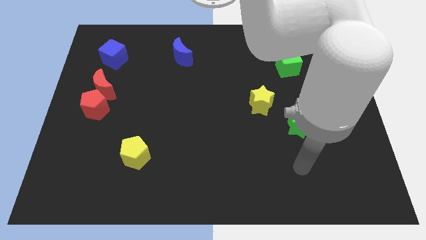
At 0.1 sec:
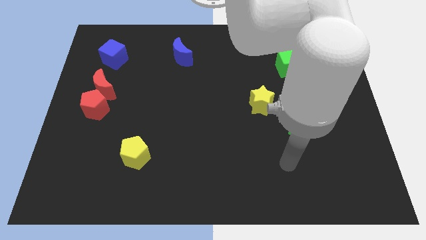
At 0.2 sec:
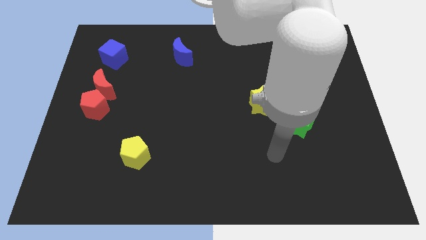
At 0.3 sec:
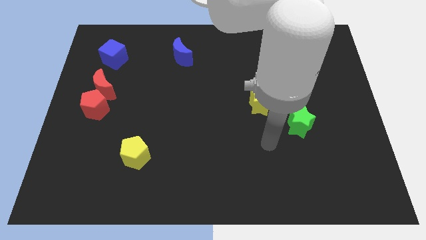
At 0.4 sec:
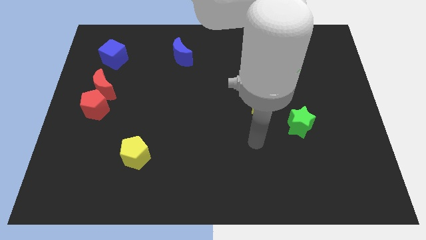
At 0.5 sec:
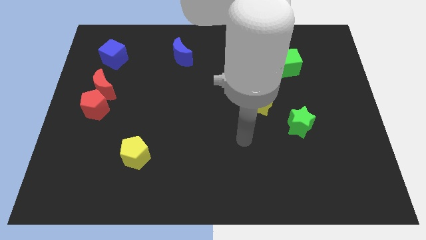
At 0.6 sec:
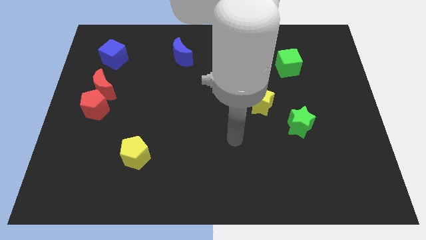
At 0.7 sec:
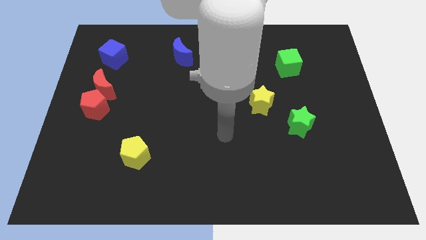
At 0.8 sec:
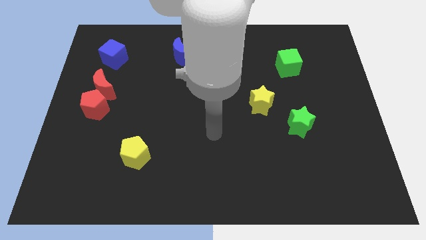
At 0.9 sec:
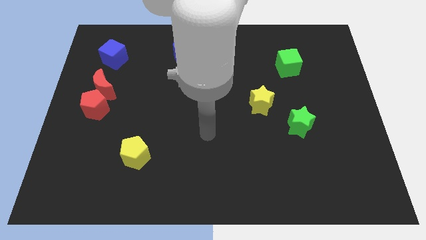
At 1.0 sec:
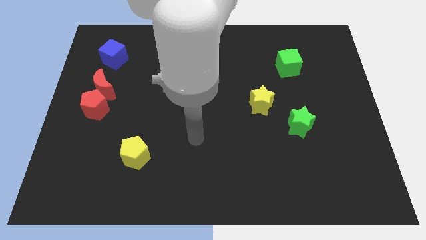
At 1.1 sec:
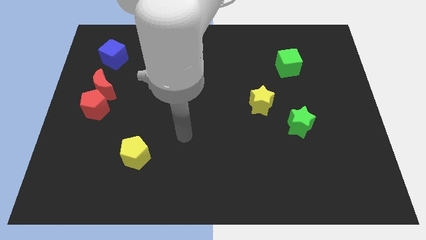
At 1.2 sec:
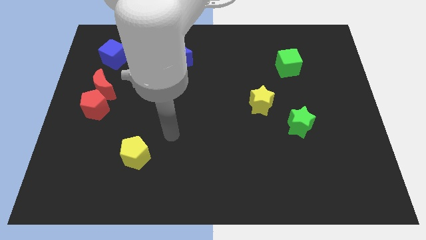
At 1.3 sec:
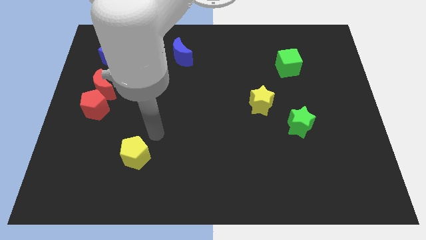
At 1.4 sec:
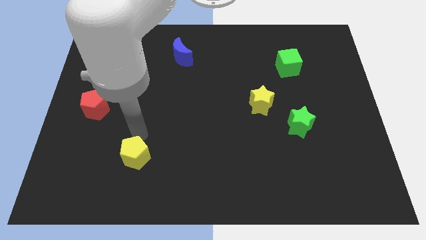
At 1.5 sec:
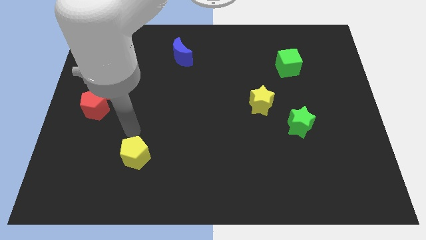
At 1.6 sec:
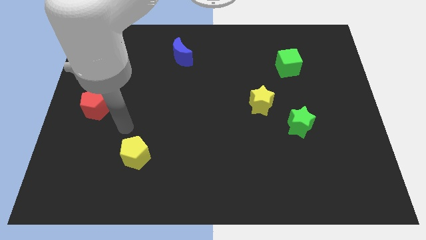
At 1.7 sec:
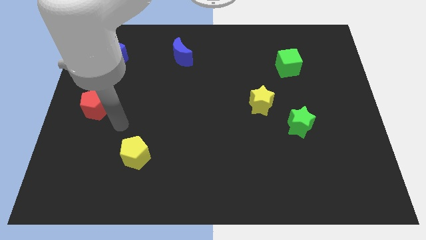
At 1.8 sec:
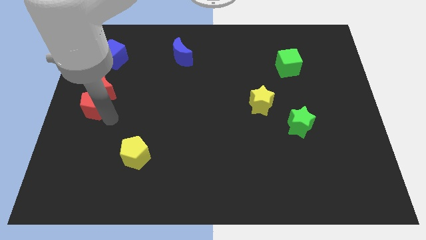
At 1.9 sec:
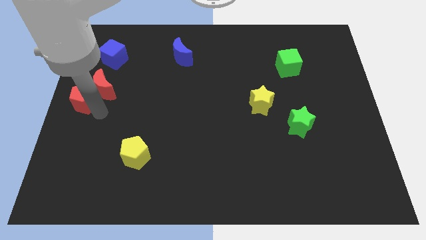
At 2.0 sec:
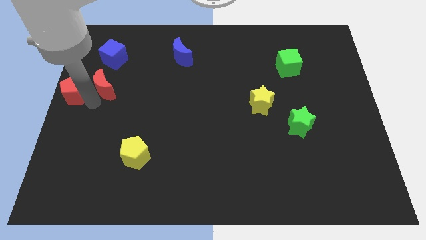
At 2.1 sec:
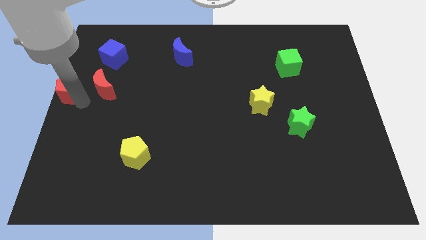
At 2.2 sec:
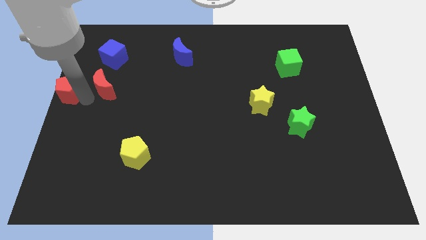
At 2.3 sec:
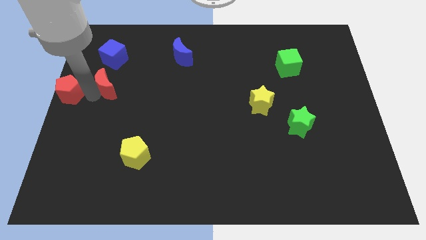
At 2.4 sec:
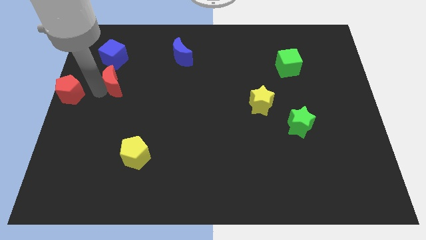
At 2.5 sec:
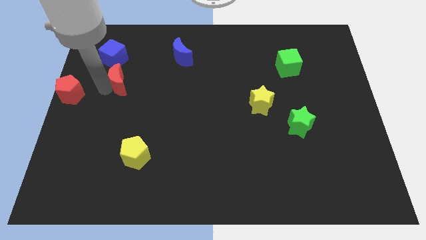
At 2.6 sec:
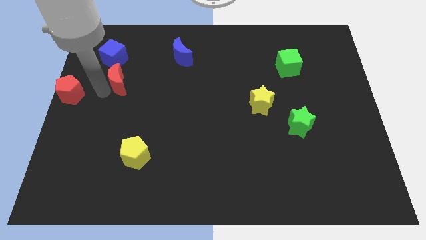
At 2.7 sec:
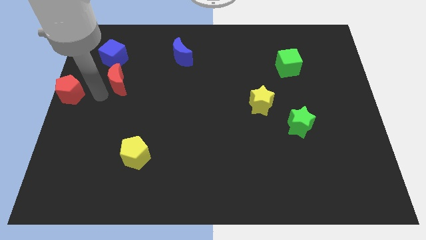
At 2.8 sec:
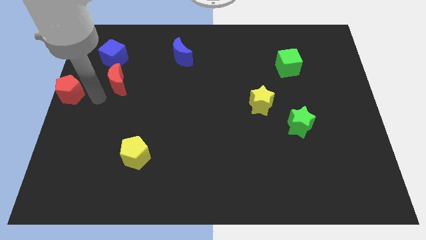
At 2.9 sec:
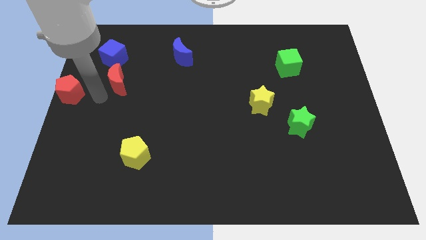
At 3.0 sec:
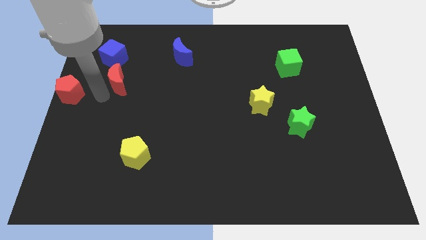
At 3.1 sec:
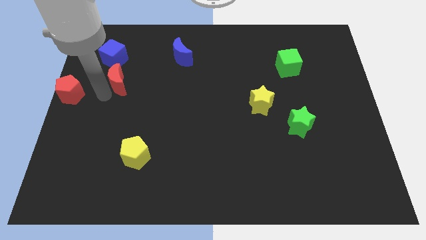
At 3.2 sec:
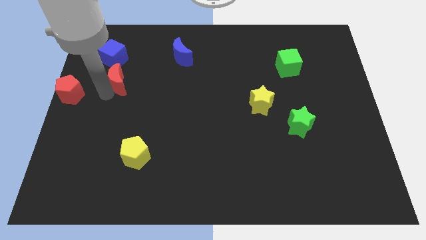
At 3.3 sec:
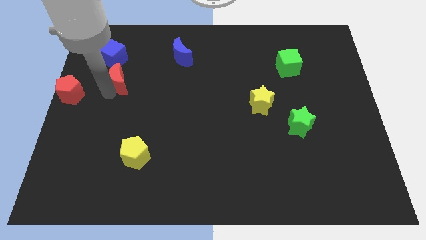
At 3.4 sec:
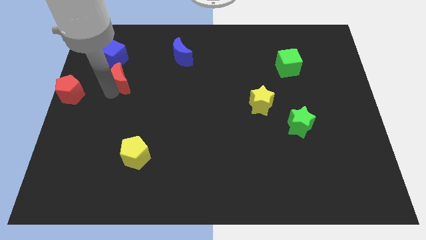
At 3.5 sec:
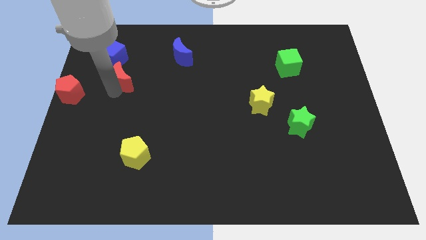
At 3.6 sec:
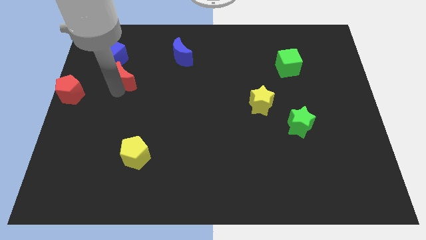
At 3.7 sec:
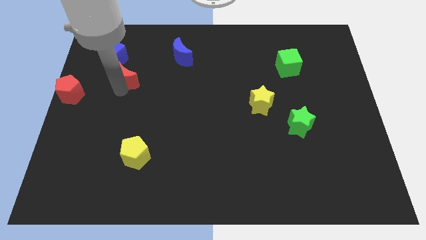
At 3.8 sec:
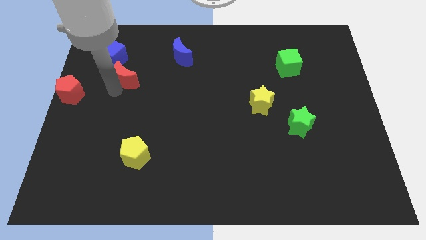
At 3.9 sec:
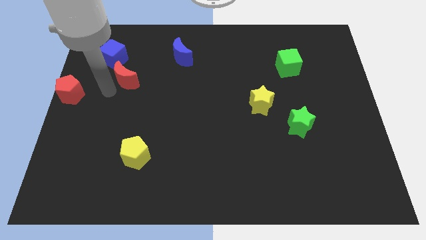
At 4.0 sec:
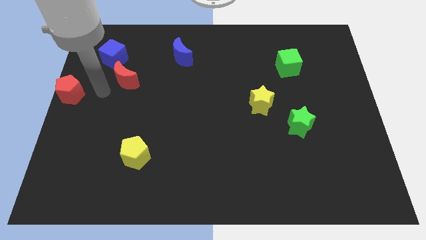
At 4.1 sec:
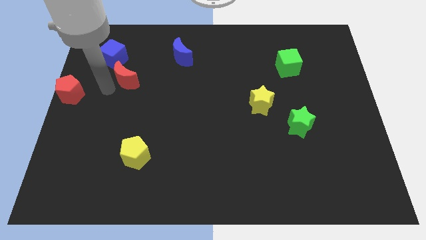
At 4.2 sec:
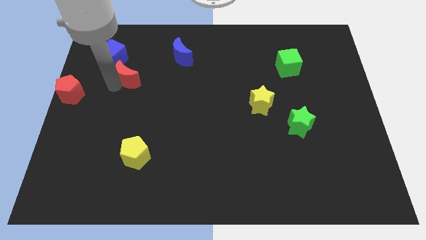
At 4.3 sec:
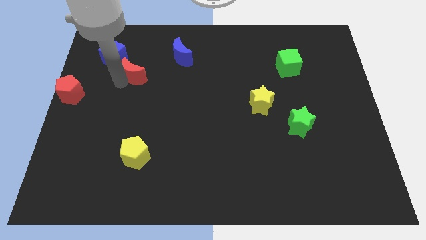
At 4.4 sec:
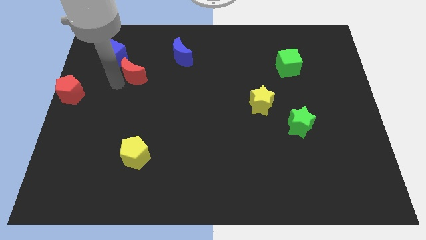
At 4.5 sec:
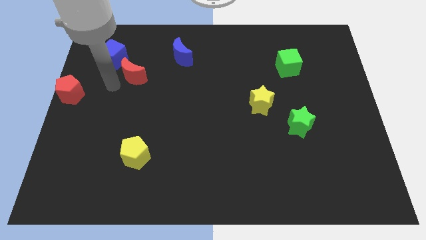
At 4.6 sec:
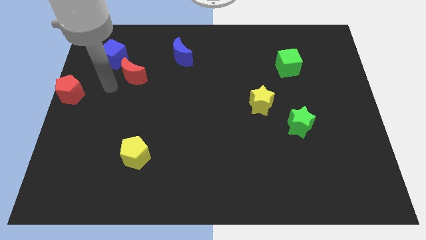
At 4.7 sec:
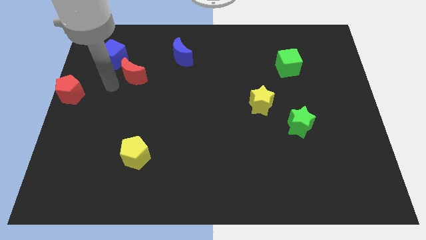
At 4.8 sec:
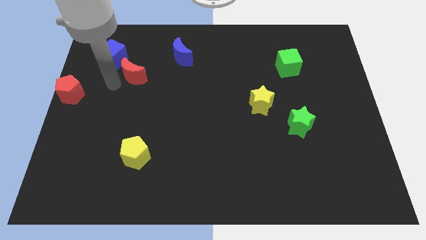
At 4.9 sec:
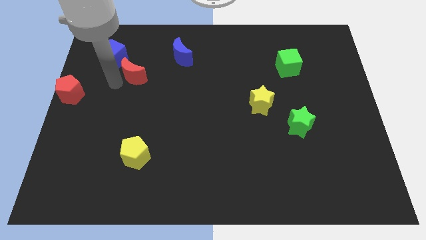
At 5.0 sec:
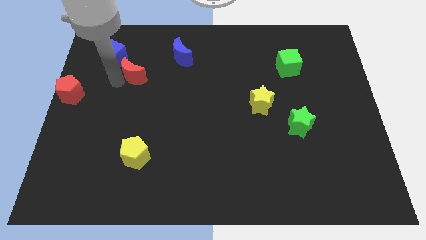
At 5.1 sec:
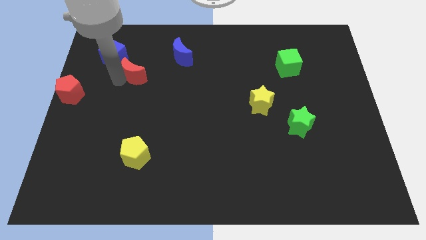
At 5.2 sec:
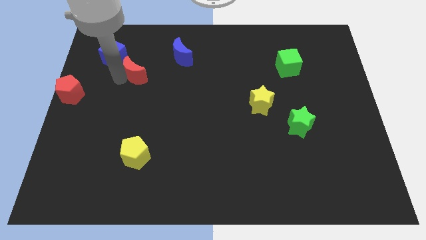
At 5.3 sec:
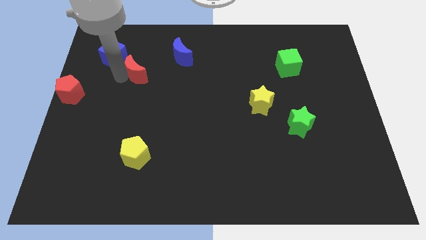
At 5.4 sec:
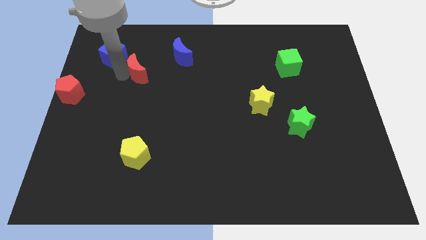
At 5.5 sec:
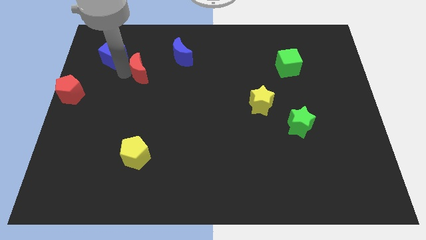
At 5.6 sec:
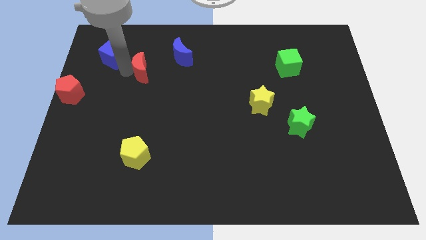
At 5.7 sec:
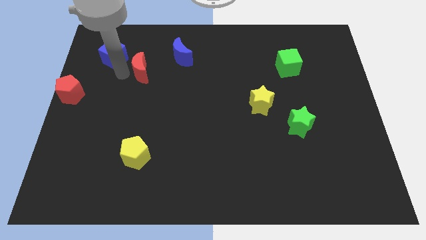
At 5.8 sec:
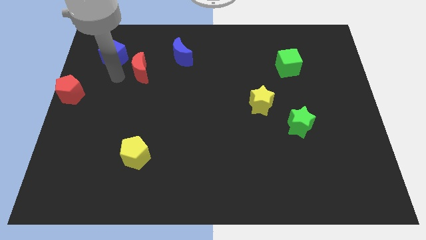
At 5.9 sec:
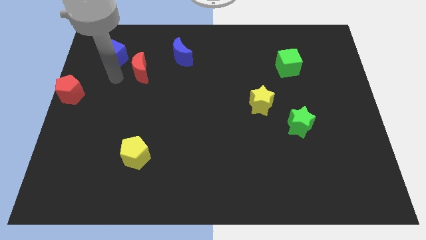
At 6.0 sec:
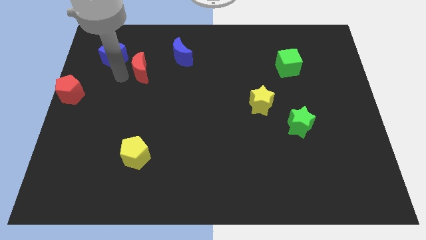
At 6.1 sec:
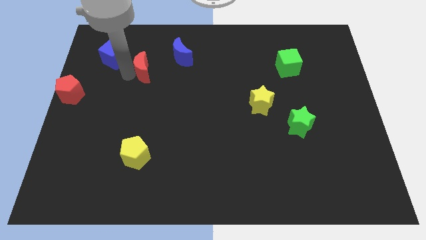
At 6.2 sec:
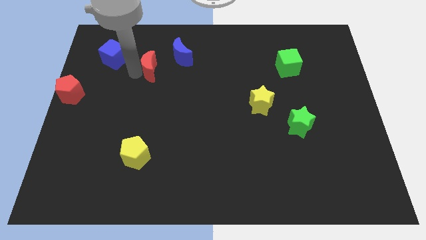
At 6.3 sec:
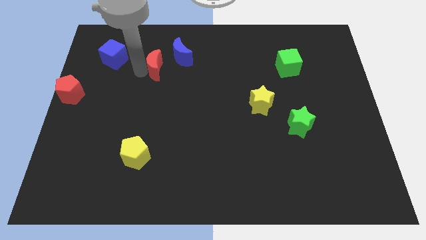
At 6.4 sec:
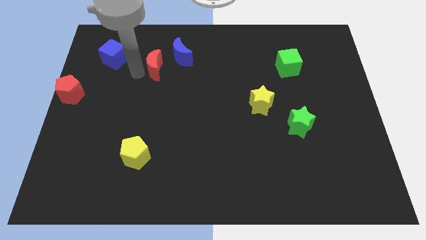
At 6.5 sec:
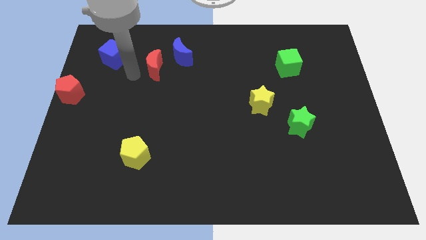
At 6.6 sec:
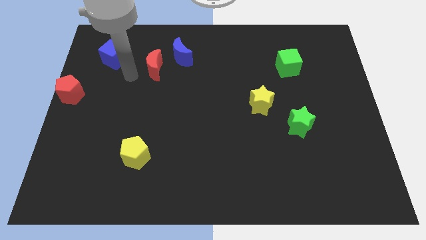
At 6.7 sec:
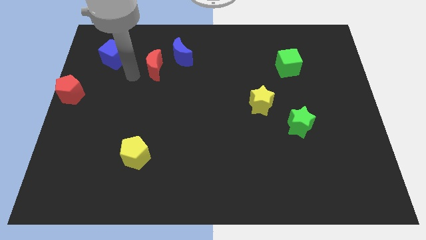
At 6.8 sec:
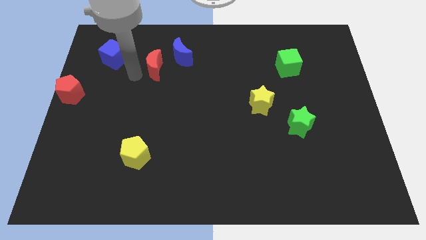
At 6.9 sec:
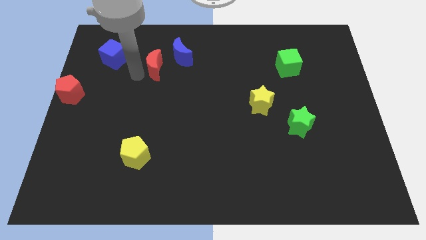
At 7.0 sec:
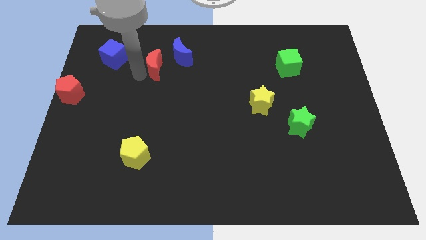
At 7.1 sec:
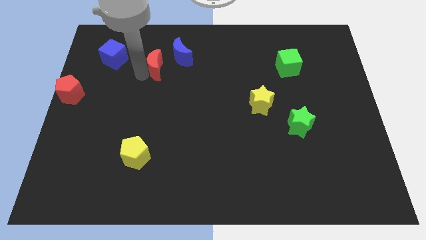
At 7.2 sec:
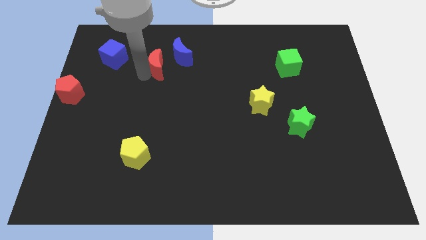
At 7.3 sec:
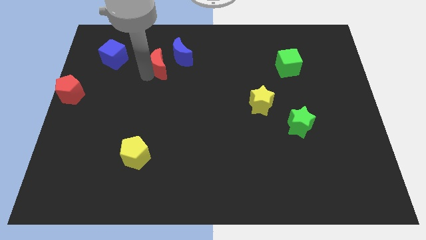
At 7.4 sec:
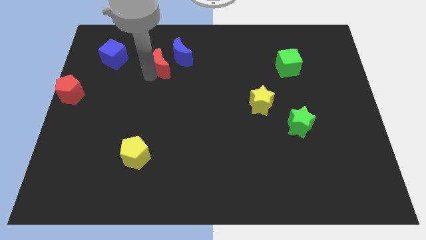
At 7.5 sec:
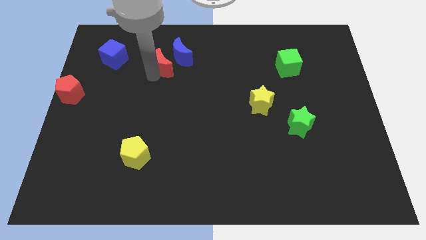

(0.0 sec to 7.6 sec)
move the red moon to the blue moon
